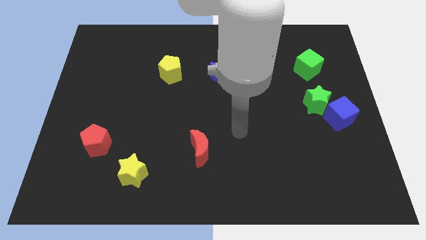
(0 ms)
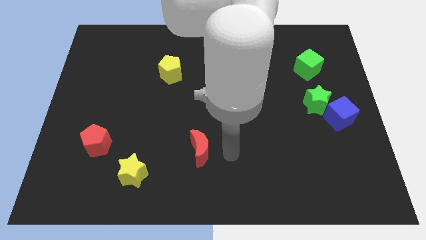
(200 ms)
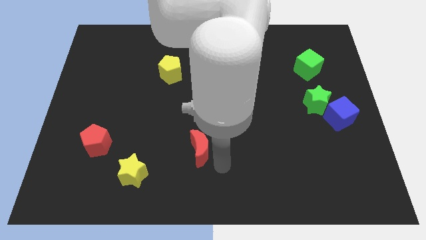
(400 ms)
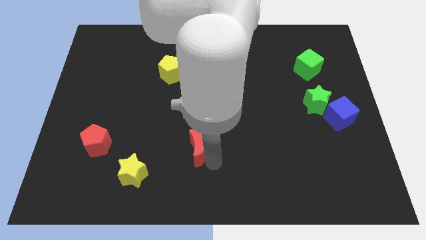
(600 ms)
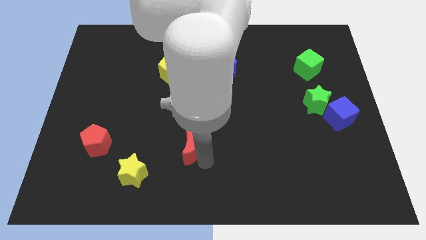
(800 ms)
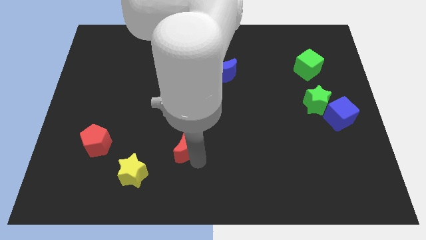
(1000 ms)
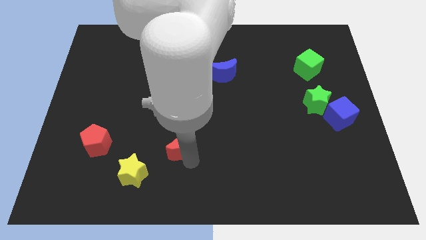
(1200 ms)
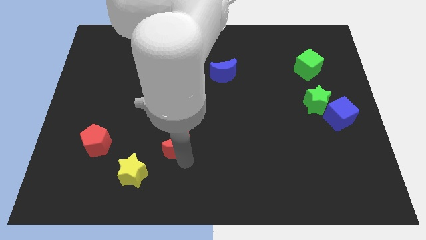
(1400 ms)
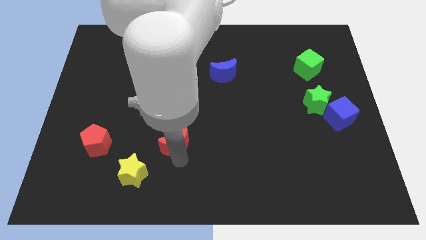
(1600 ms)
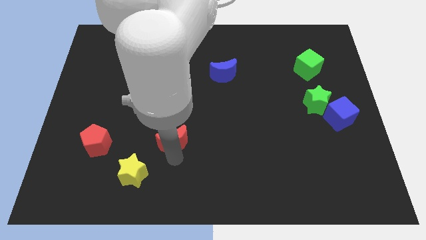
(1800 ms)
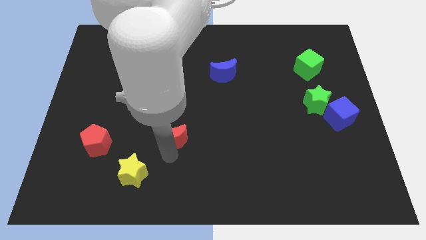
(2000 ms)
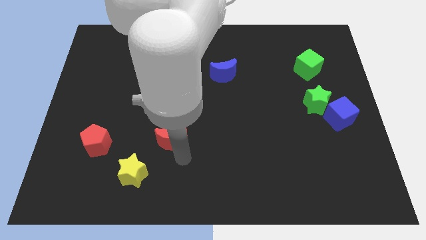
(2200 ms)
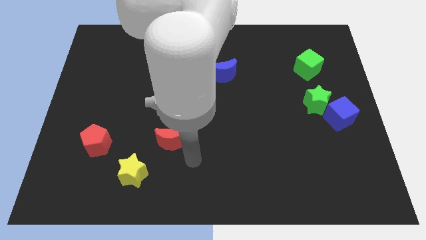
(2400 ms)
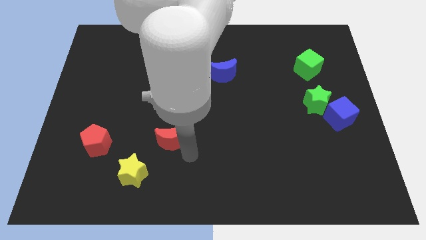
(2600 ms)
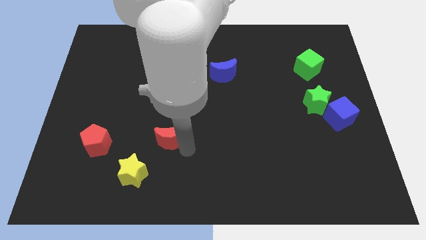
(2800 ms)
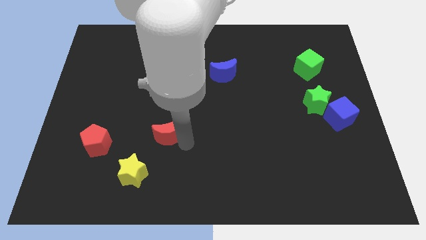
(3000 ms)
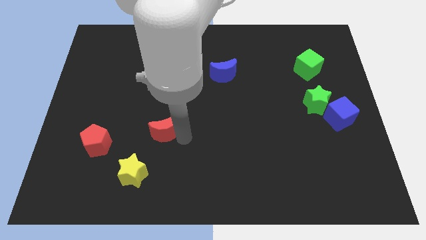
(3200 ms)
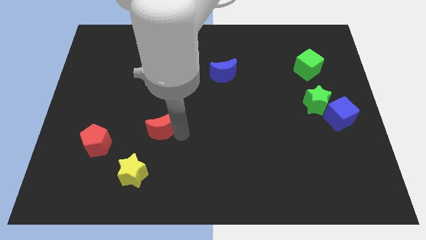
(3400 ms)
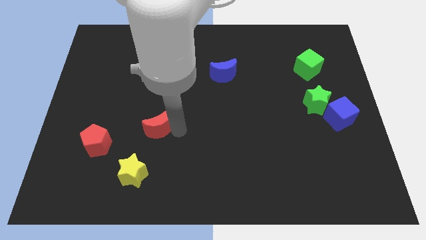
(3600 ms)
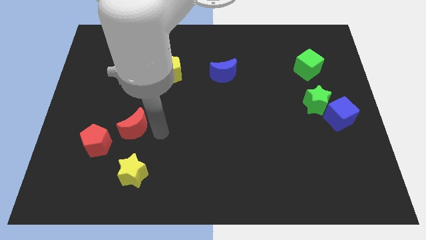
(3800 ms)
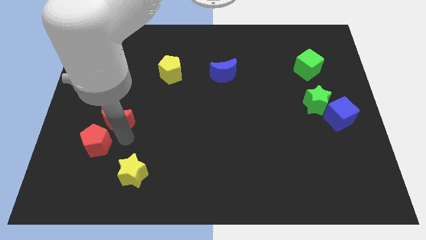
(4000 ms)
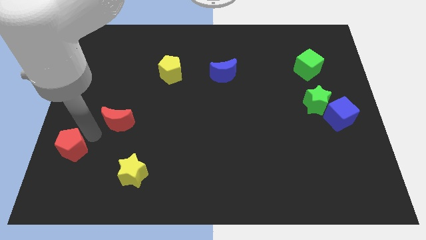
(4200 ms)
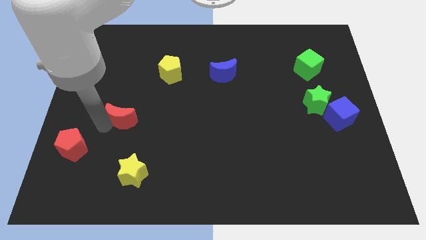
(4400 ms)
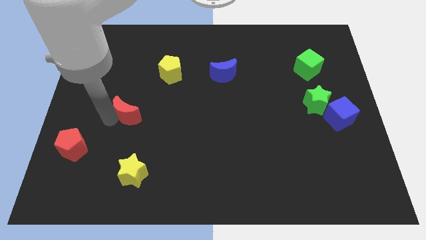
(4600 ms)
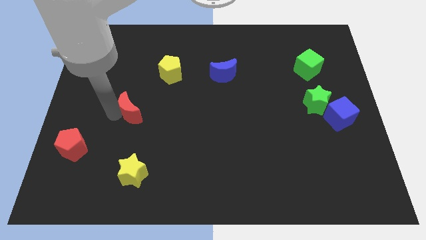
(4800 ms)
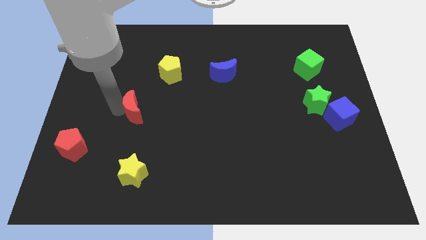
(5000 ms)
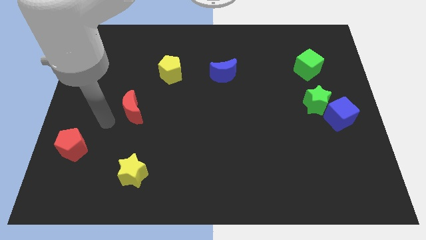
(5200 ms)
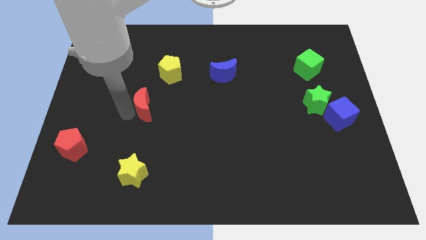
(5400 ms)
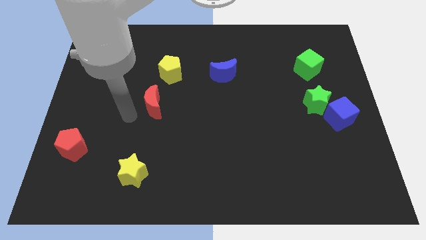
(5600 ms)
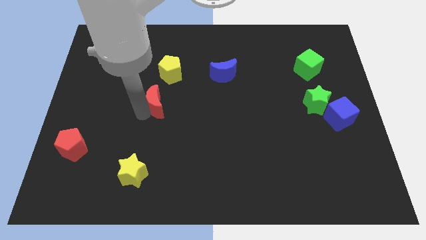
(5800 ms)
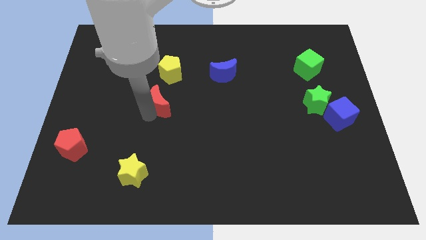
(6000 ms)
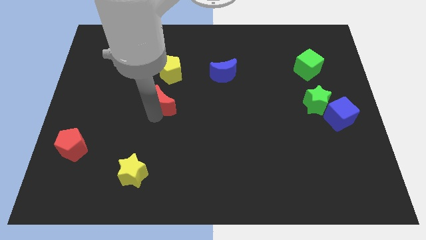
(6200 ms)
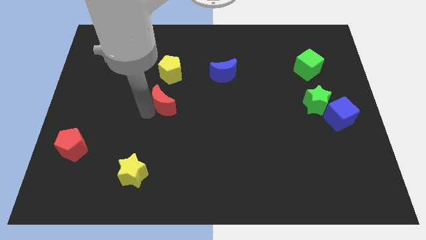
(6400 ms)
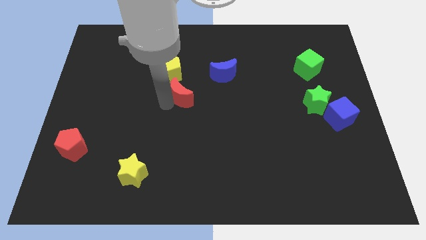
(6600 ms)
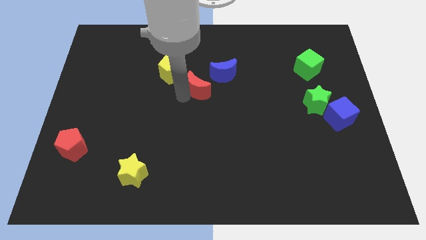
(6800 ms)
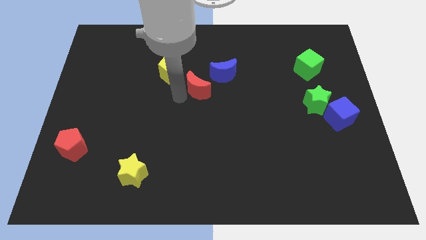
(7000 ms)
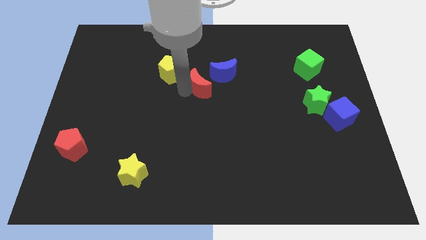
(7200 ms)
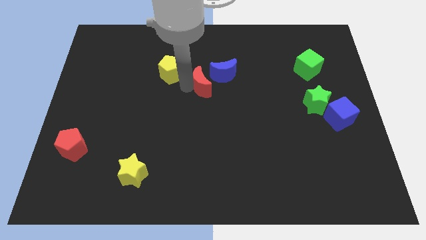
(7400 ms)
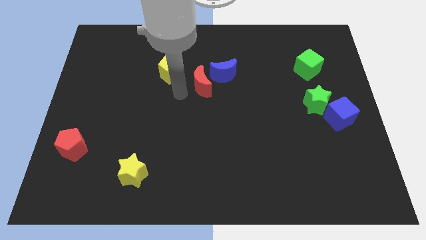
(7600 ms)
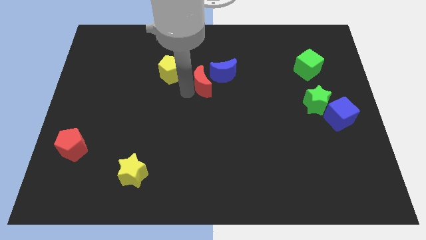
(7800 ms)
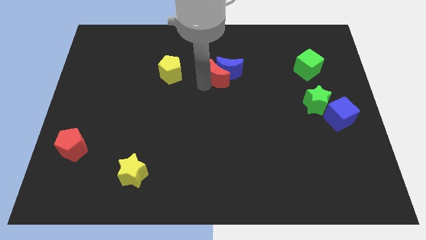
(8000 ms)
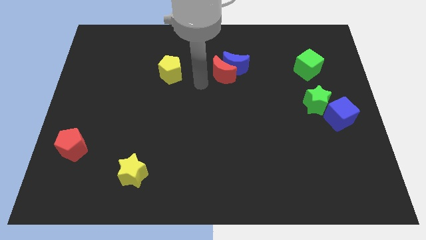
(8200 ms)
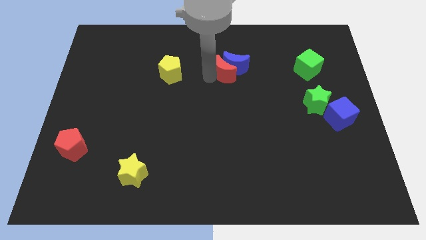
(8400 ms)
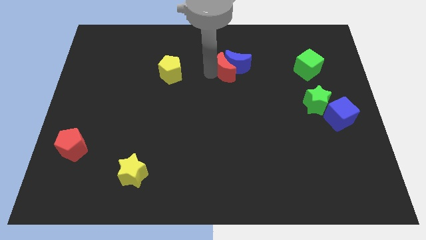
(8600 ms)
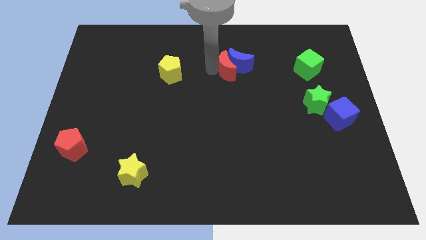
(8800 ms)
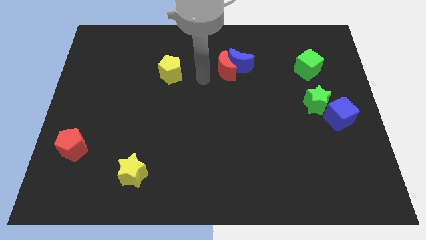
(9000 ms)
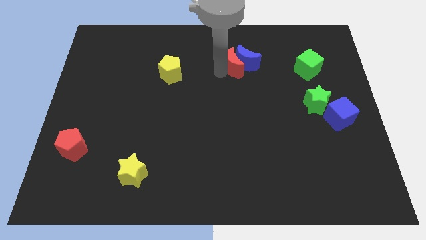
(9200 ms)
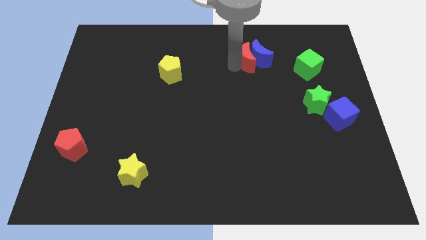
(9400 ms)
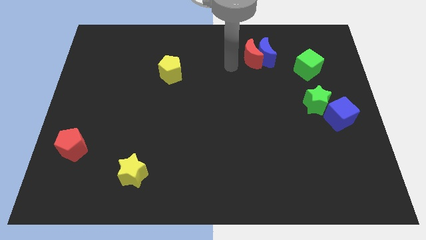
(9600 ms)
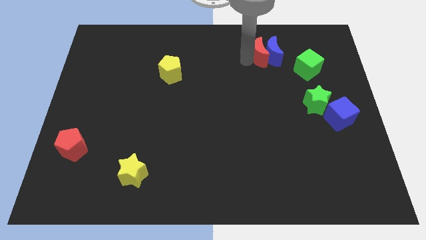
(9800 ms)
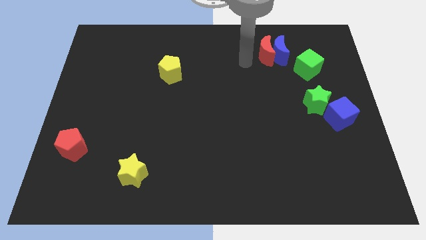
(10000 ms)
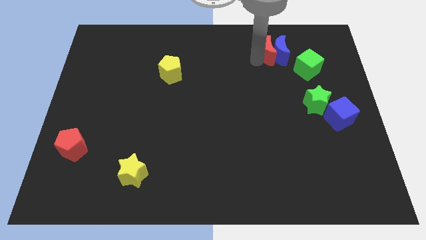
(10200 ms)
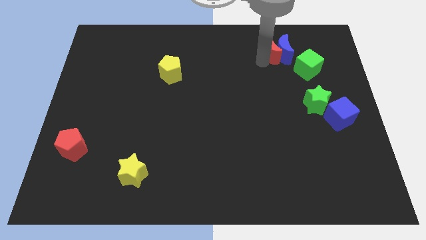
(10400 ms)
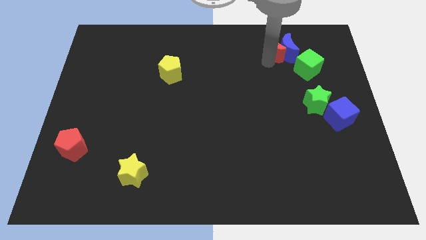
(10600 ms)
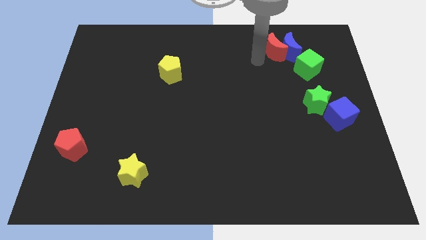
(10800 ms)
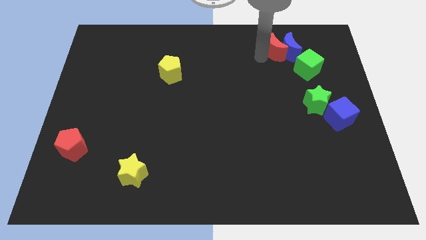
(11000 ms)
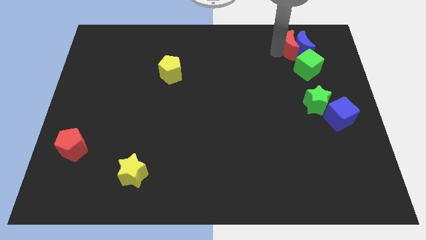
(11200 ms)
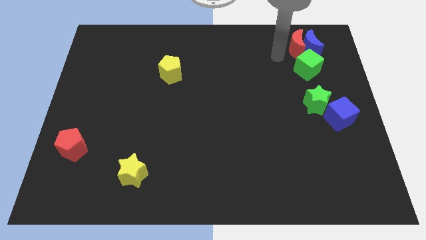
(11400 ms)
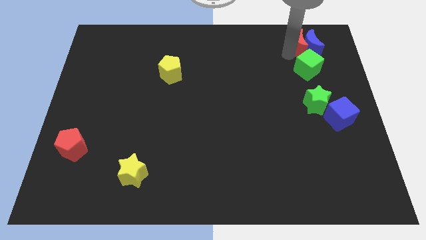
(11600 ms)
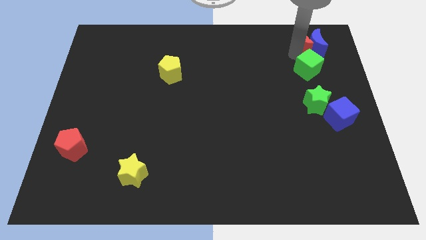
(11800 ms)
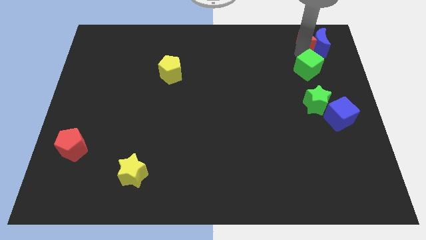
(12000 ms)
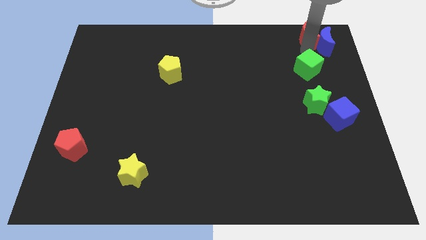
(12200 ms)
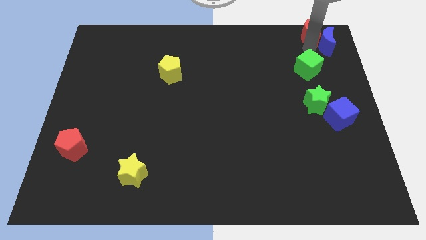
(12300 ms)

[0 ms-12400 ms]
put the red moon to the top right of the board

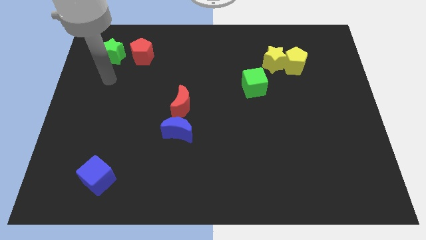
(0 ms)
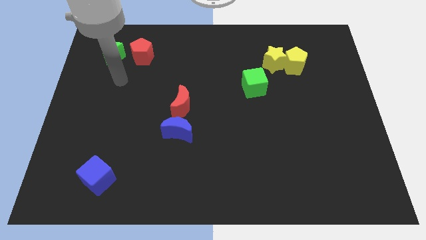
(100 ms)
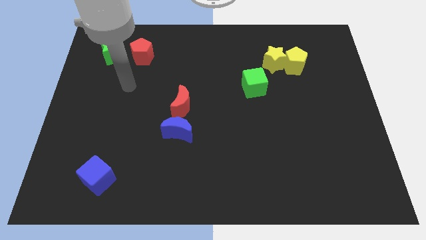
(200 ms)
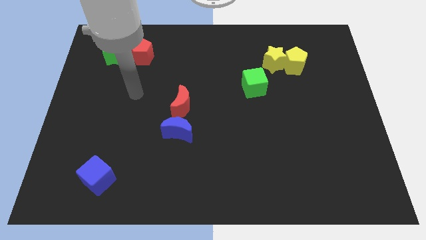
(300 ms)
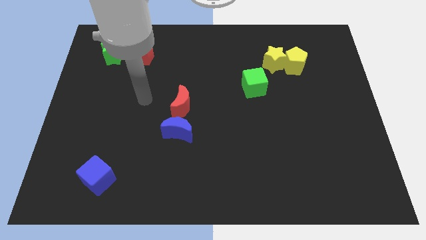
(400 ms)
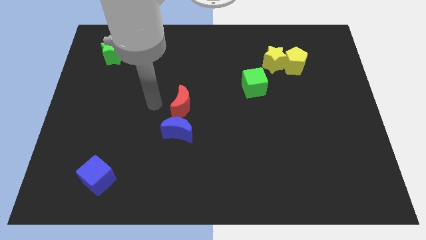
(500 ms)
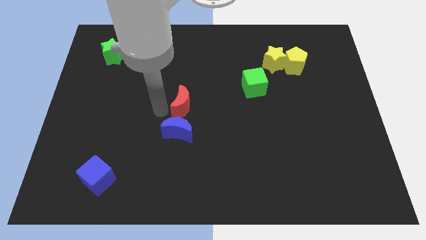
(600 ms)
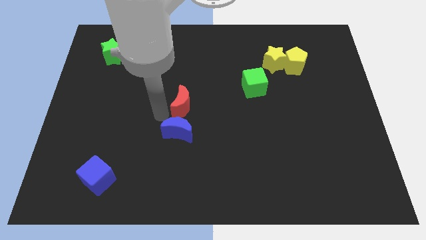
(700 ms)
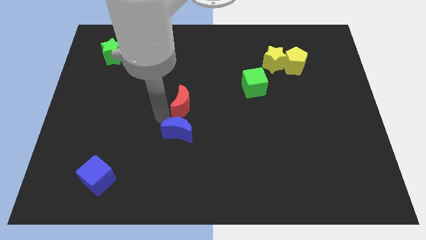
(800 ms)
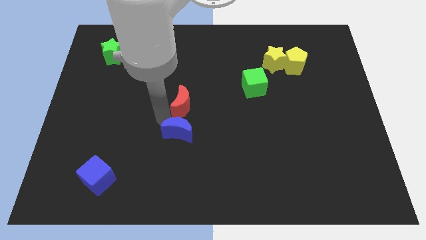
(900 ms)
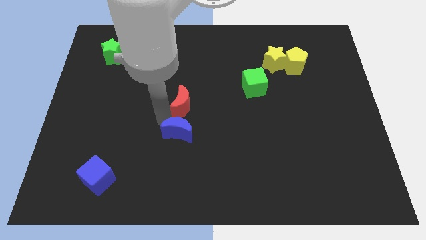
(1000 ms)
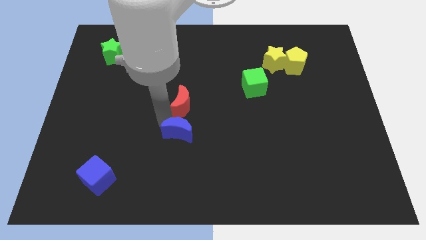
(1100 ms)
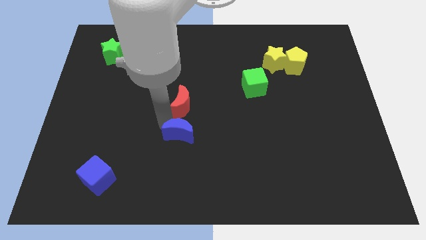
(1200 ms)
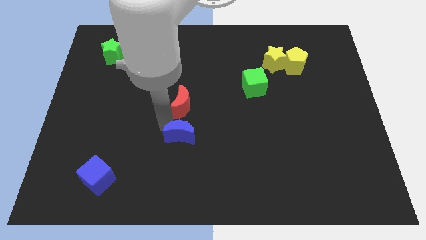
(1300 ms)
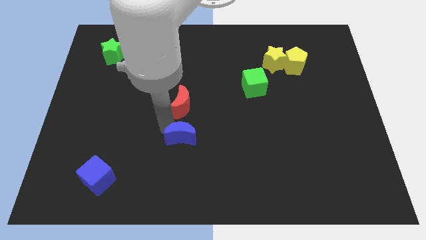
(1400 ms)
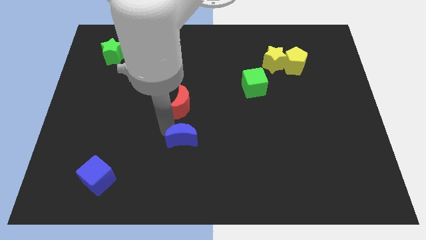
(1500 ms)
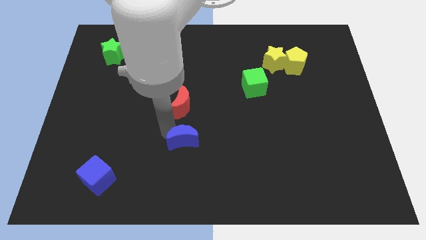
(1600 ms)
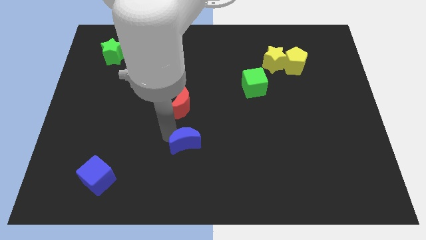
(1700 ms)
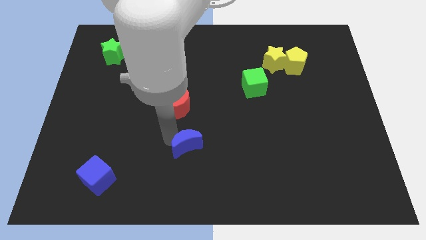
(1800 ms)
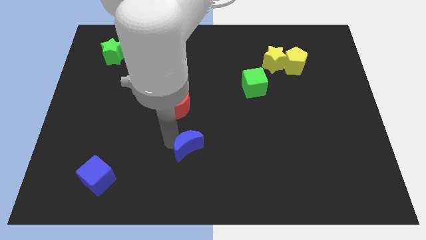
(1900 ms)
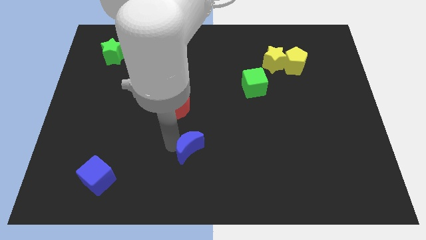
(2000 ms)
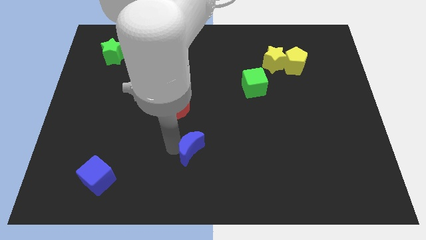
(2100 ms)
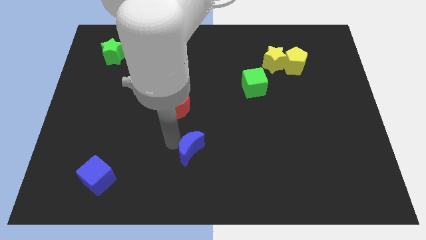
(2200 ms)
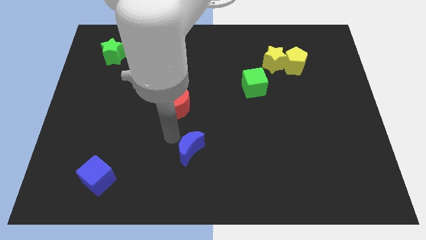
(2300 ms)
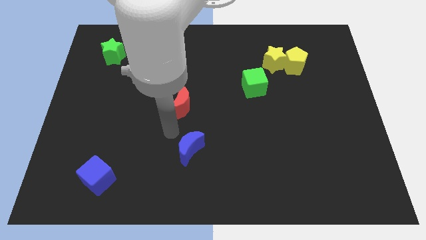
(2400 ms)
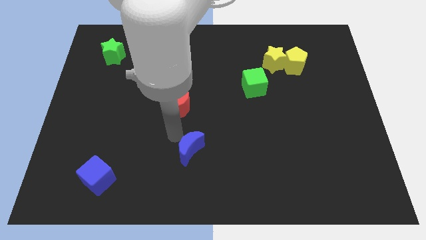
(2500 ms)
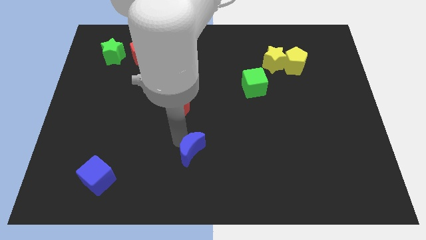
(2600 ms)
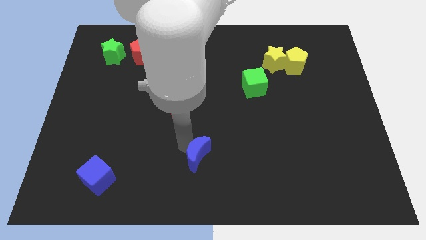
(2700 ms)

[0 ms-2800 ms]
move the blue moon to the bottom
